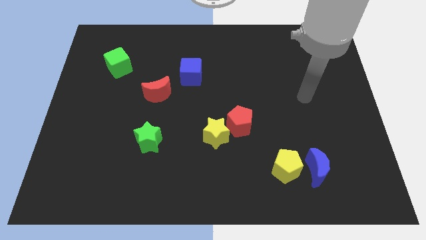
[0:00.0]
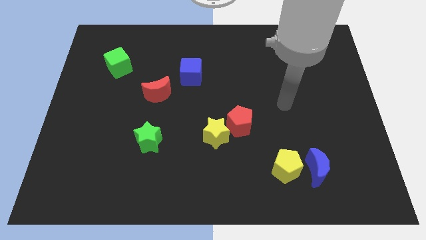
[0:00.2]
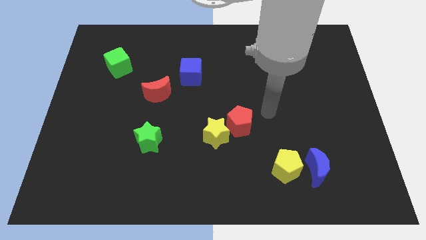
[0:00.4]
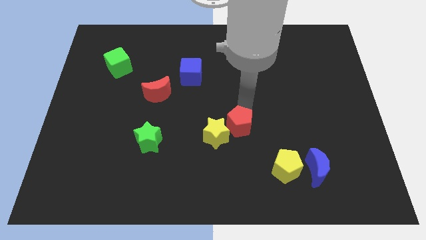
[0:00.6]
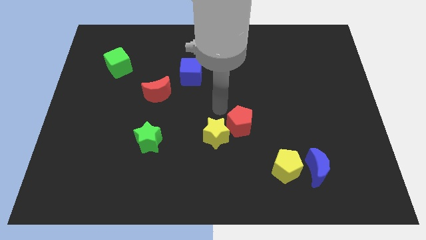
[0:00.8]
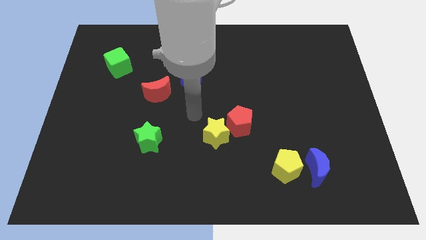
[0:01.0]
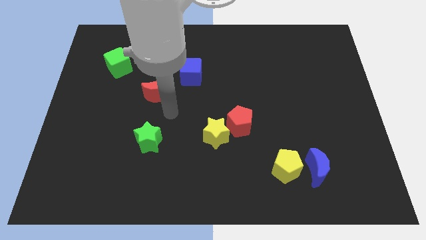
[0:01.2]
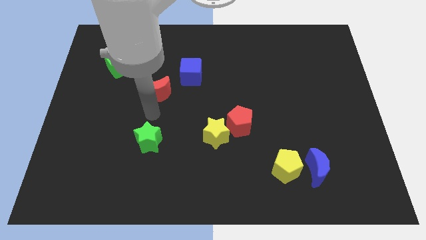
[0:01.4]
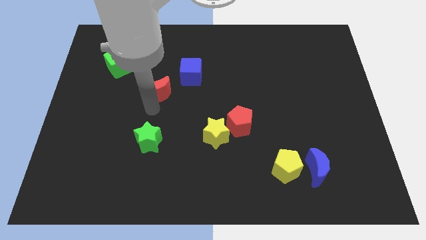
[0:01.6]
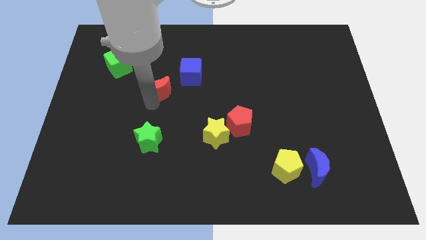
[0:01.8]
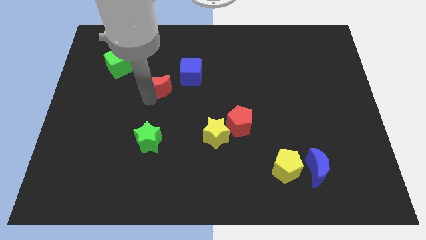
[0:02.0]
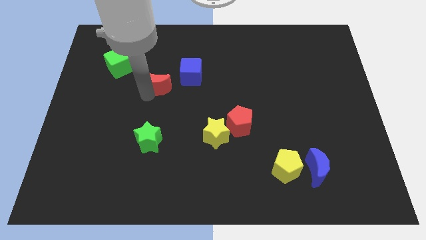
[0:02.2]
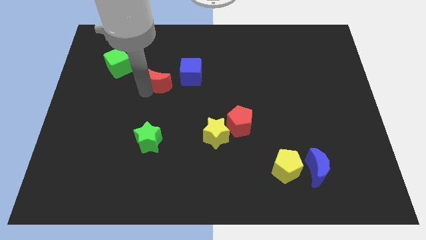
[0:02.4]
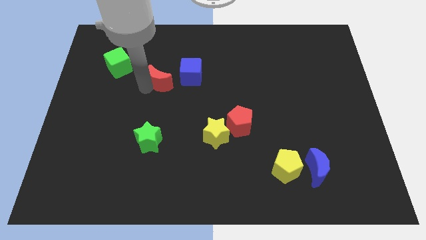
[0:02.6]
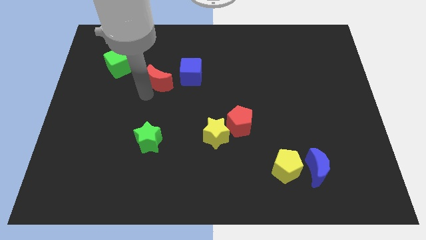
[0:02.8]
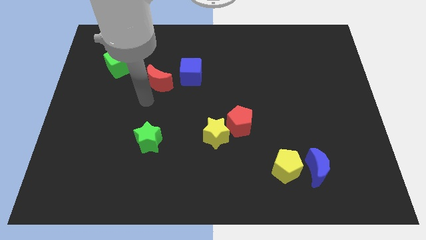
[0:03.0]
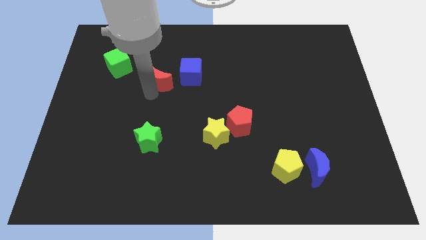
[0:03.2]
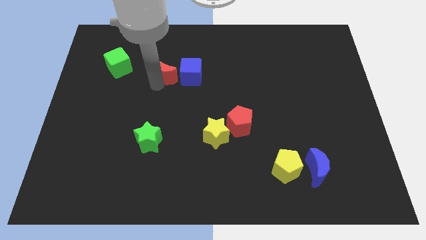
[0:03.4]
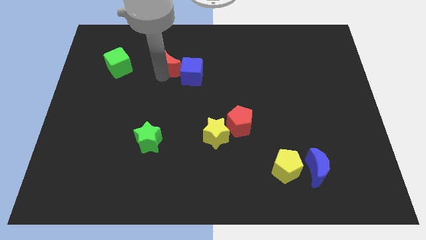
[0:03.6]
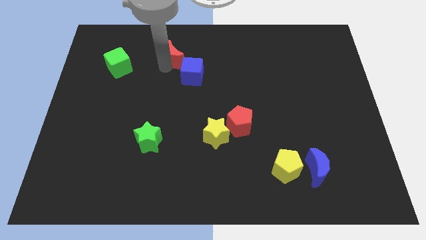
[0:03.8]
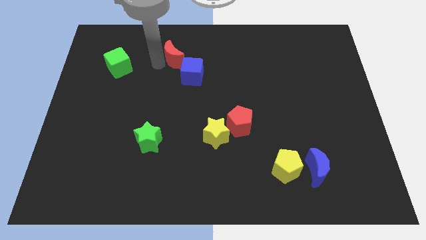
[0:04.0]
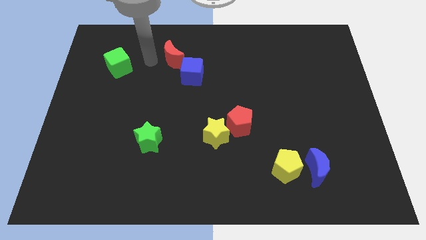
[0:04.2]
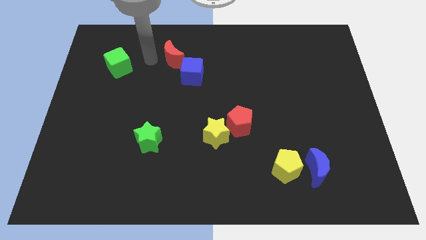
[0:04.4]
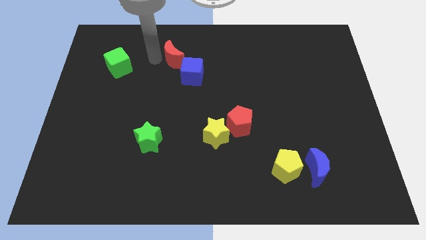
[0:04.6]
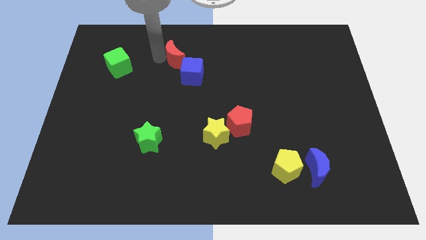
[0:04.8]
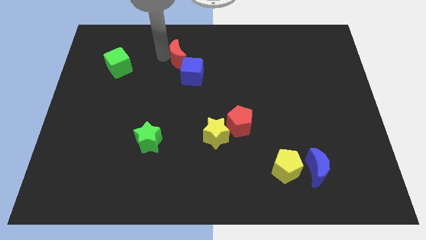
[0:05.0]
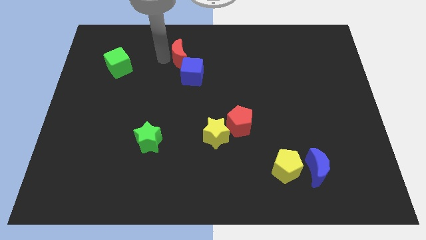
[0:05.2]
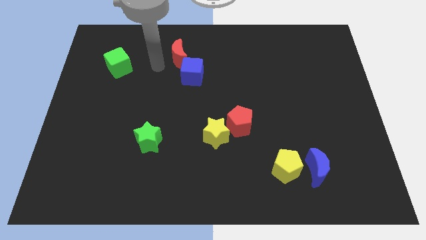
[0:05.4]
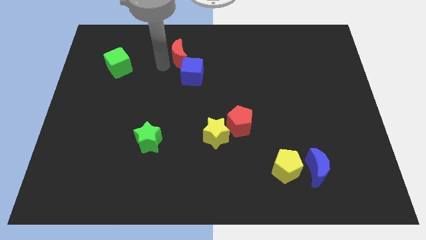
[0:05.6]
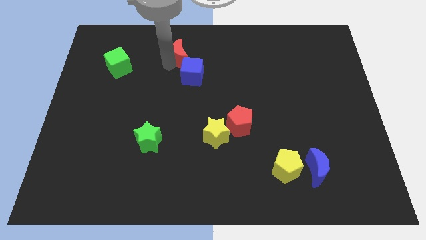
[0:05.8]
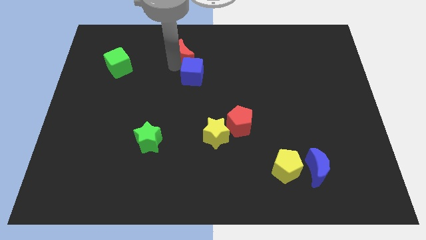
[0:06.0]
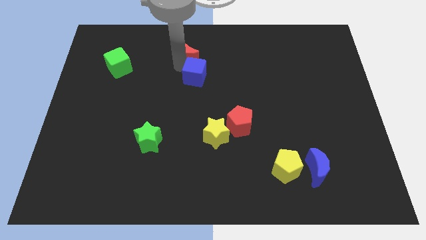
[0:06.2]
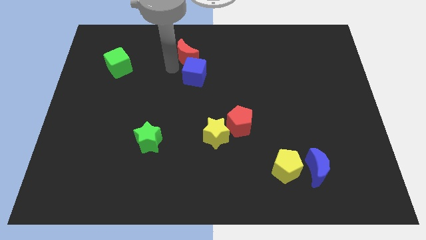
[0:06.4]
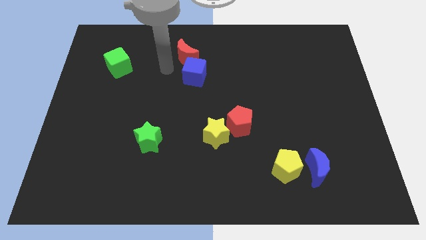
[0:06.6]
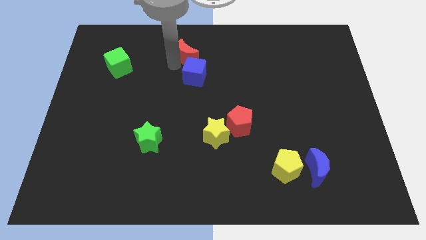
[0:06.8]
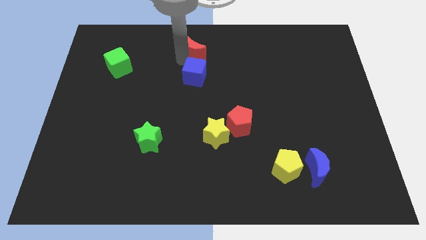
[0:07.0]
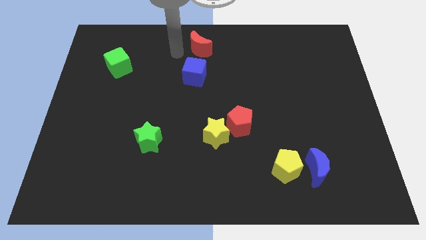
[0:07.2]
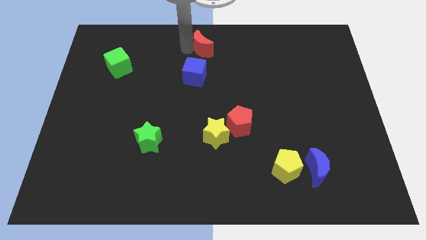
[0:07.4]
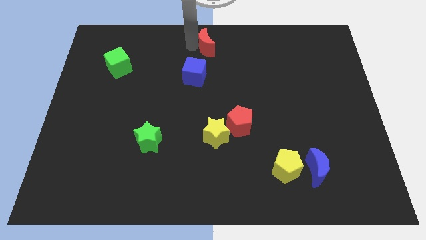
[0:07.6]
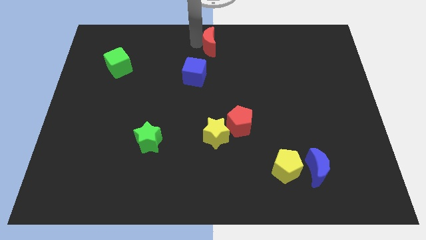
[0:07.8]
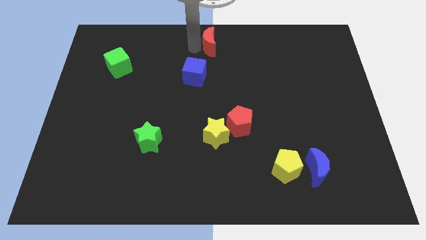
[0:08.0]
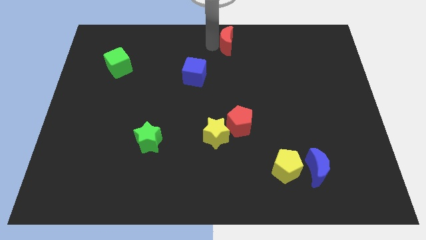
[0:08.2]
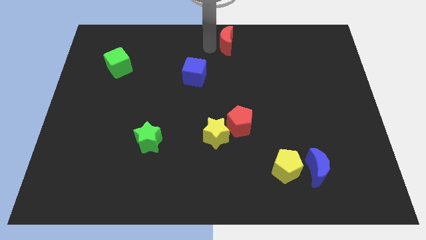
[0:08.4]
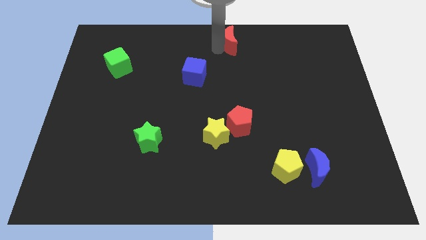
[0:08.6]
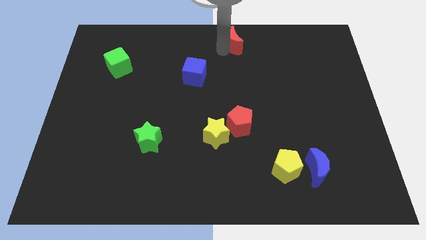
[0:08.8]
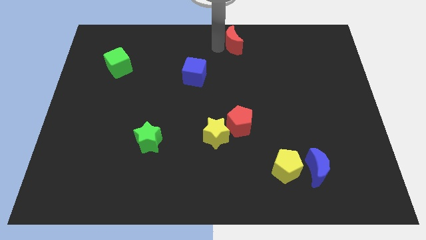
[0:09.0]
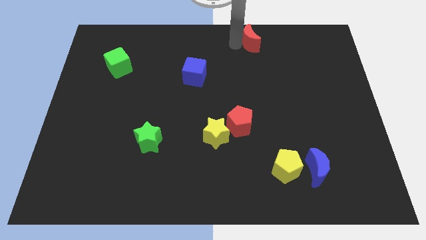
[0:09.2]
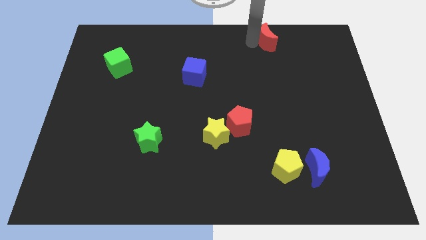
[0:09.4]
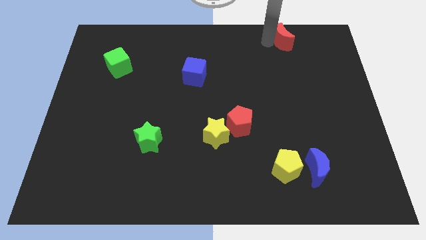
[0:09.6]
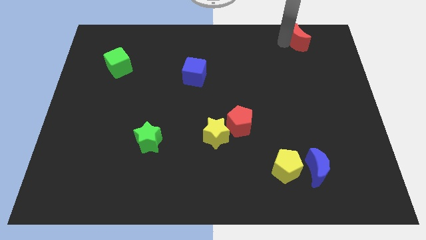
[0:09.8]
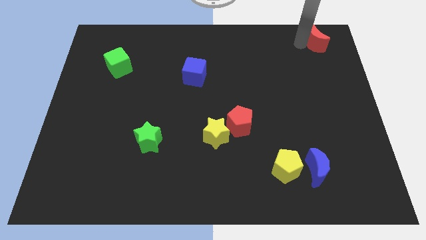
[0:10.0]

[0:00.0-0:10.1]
move the red moon to the upper right corner

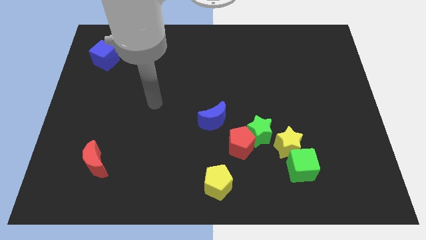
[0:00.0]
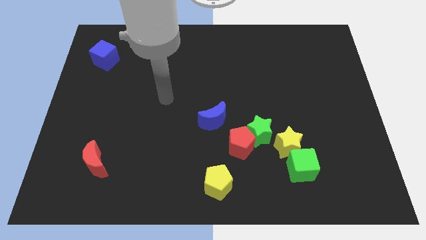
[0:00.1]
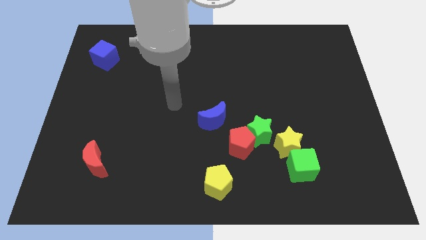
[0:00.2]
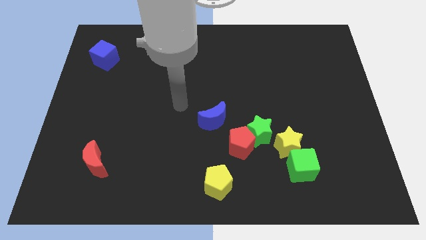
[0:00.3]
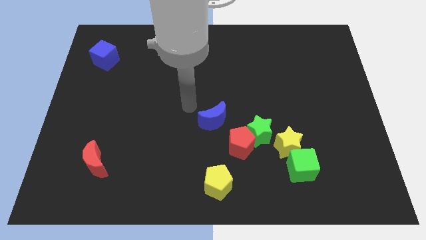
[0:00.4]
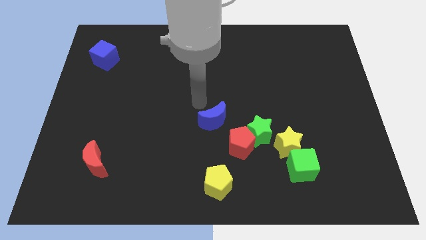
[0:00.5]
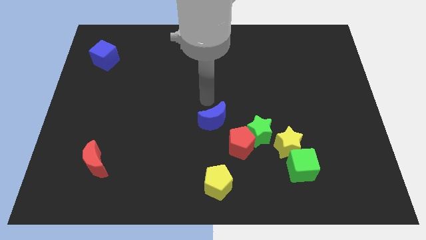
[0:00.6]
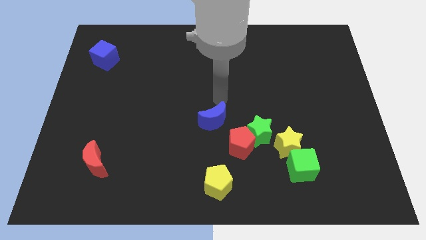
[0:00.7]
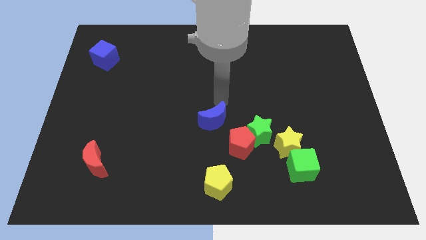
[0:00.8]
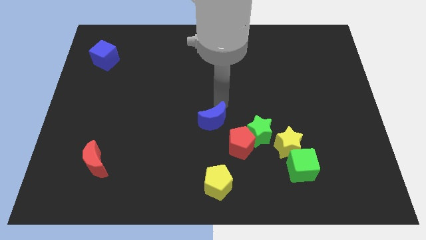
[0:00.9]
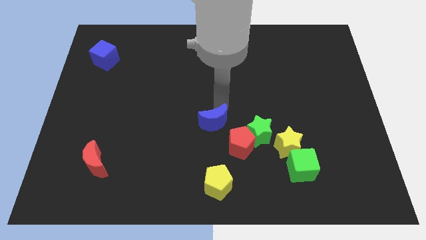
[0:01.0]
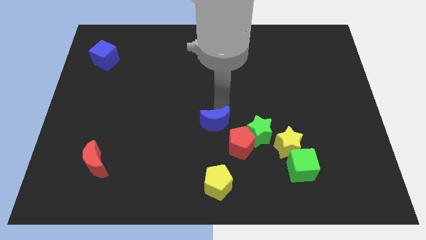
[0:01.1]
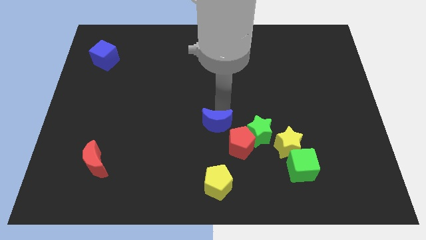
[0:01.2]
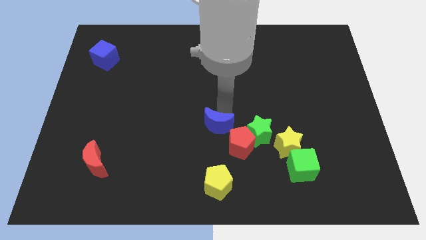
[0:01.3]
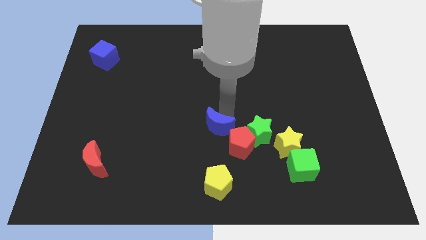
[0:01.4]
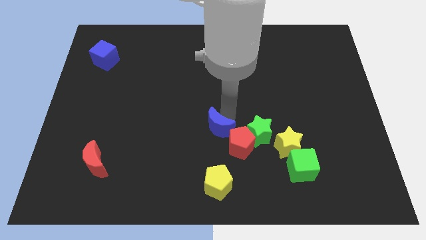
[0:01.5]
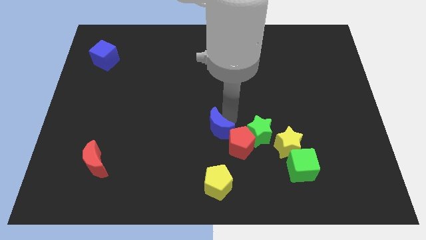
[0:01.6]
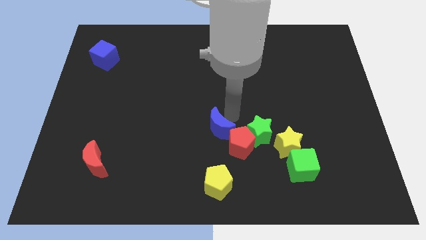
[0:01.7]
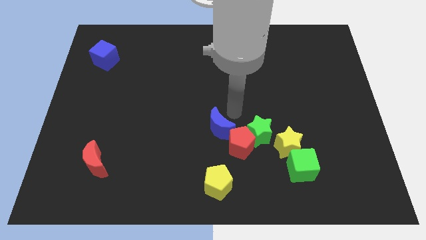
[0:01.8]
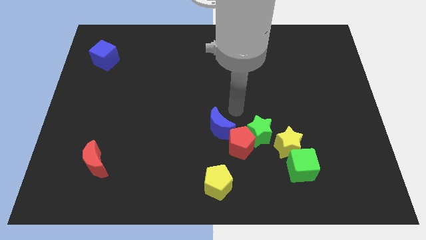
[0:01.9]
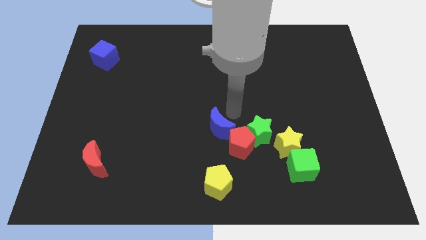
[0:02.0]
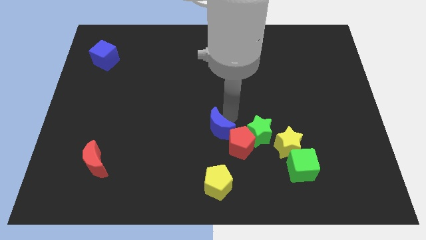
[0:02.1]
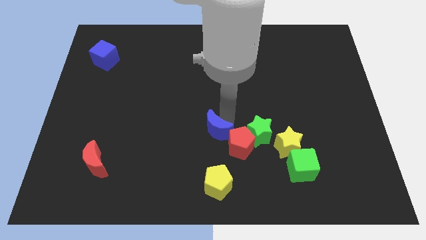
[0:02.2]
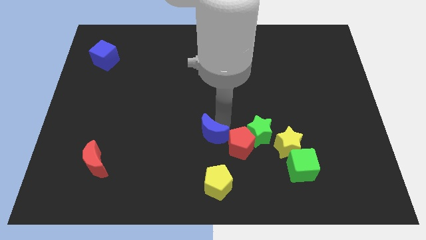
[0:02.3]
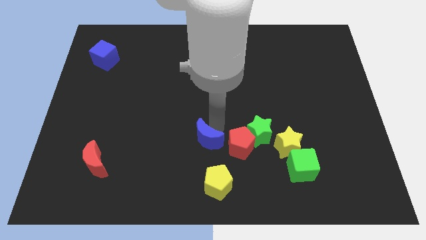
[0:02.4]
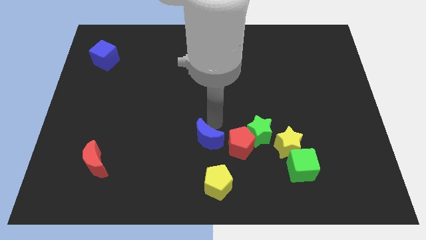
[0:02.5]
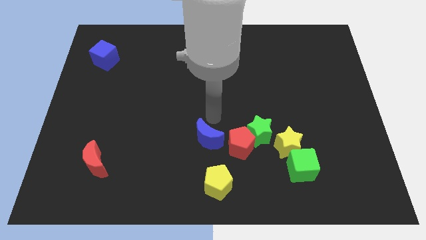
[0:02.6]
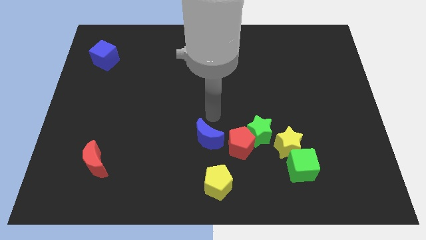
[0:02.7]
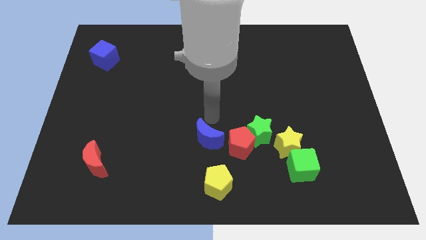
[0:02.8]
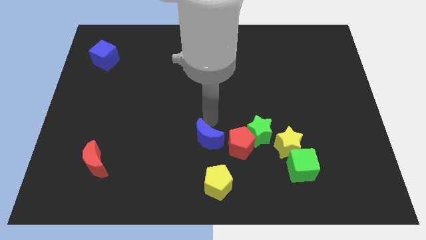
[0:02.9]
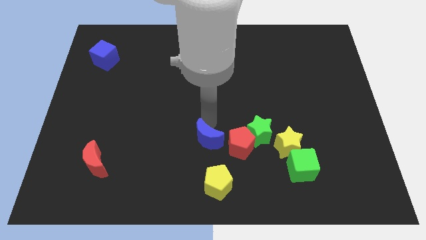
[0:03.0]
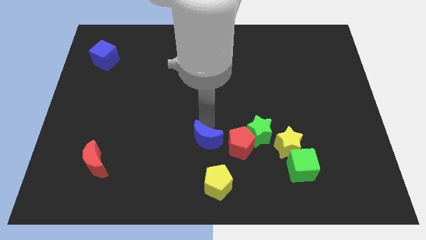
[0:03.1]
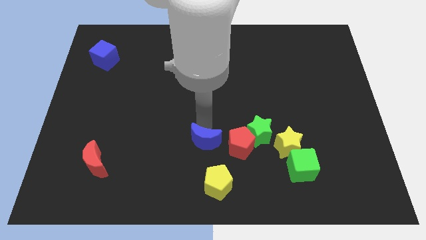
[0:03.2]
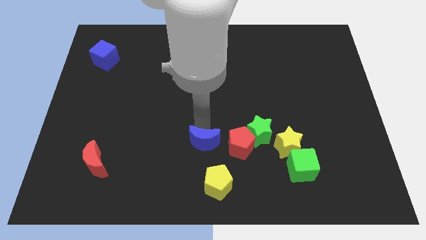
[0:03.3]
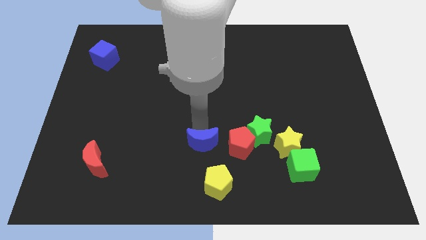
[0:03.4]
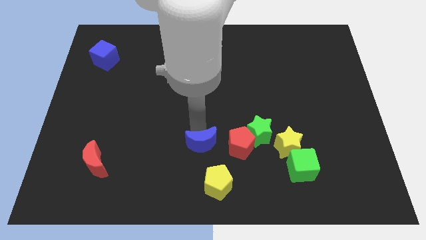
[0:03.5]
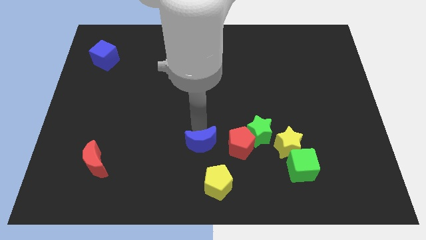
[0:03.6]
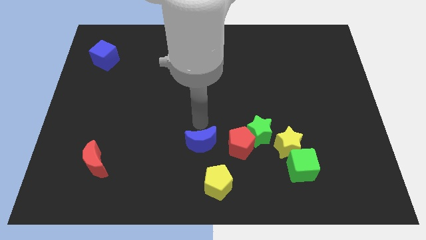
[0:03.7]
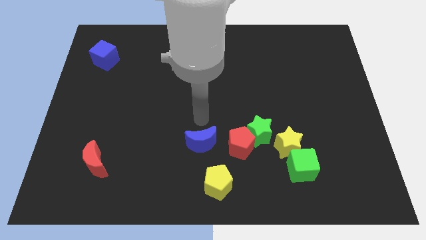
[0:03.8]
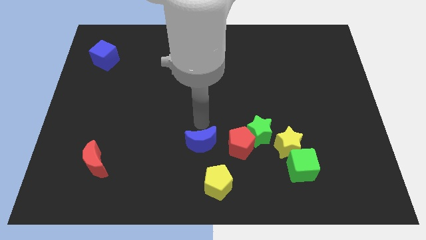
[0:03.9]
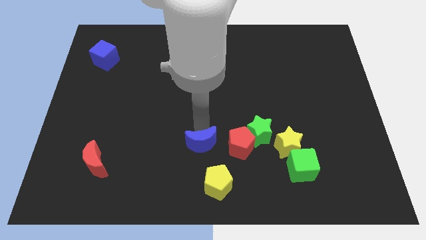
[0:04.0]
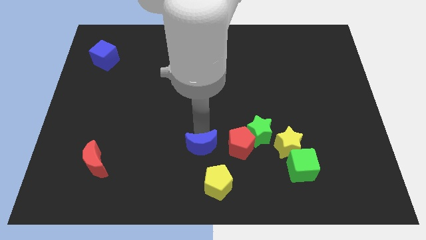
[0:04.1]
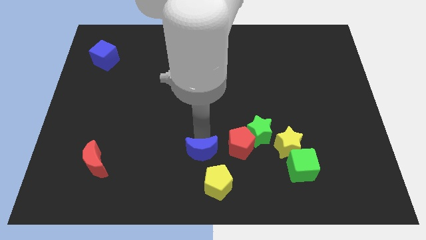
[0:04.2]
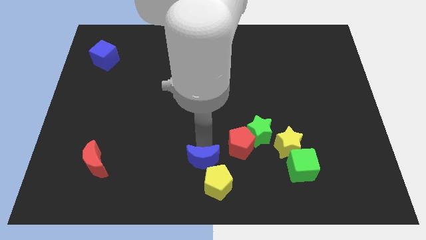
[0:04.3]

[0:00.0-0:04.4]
slide the blue moon to the bottom side
